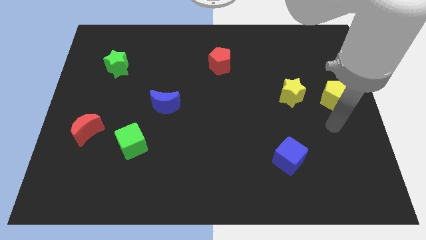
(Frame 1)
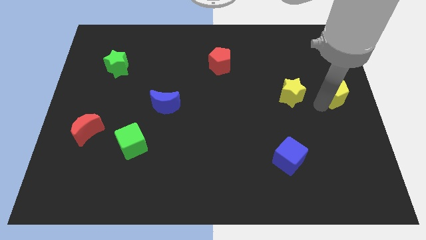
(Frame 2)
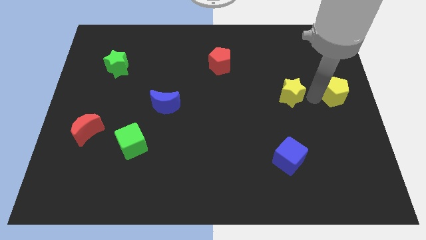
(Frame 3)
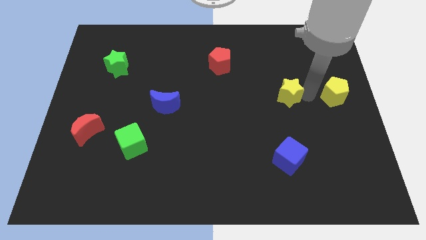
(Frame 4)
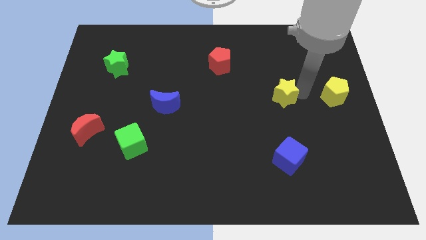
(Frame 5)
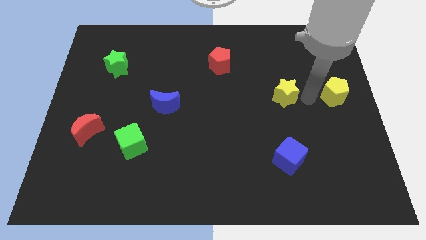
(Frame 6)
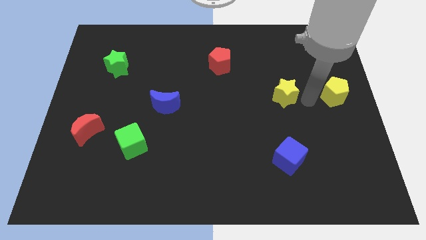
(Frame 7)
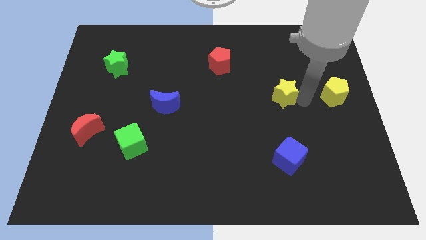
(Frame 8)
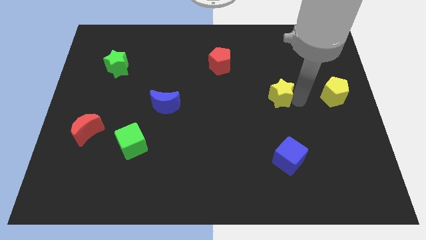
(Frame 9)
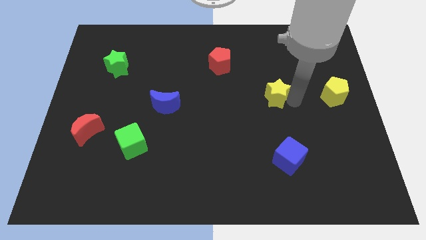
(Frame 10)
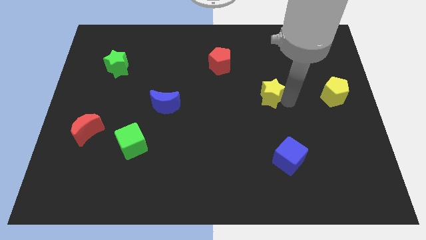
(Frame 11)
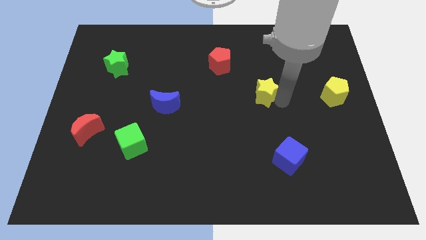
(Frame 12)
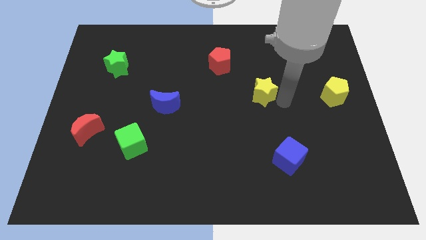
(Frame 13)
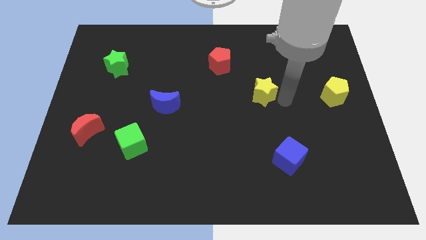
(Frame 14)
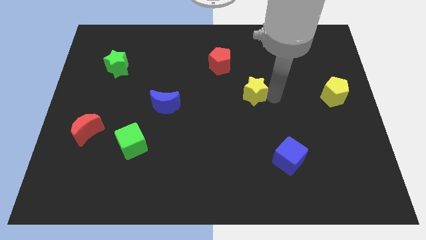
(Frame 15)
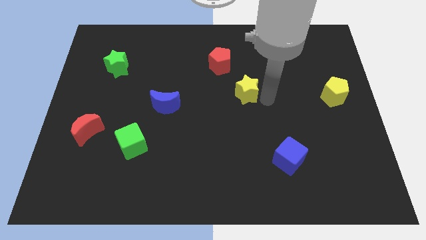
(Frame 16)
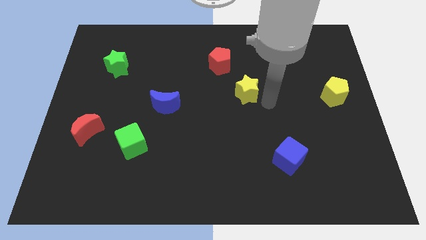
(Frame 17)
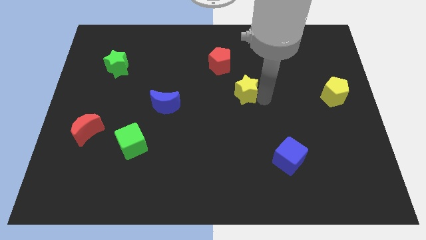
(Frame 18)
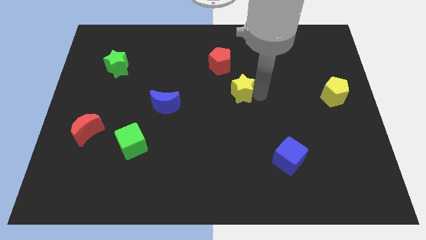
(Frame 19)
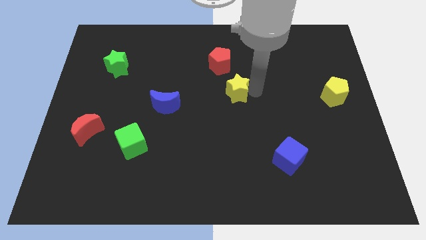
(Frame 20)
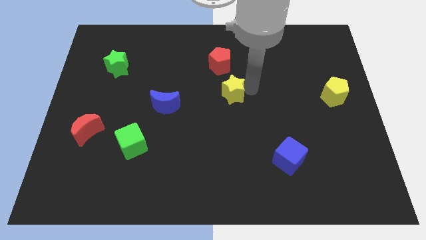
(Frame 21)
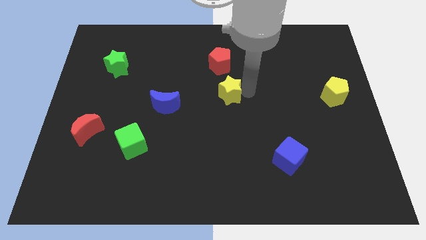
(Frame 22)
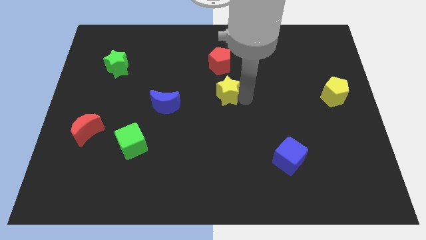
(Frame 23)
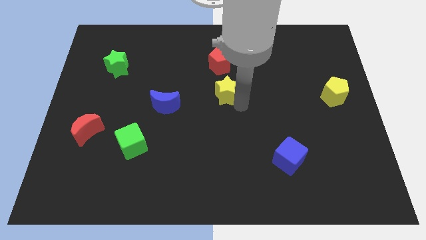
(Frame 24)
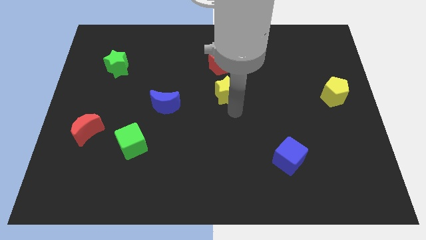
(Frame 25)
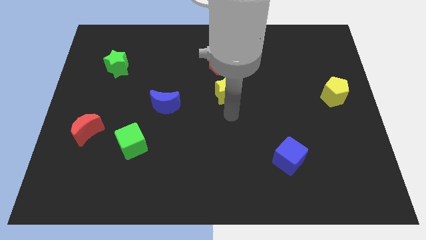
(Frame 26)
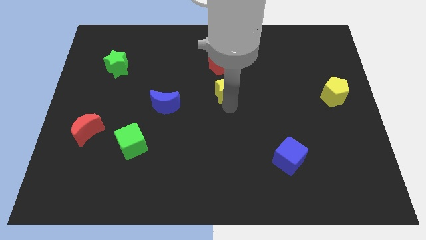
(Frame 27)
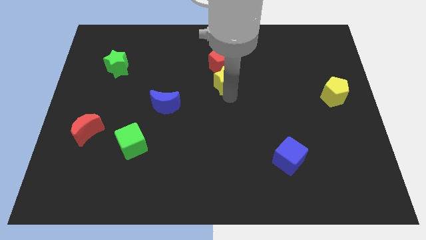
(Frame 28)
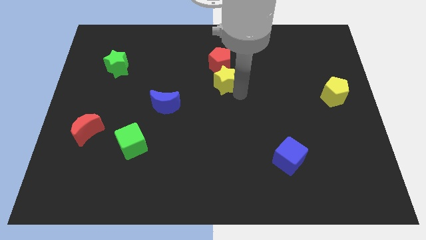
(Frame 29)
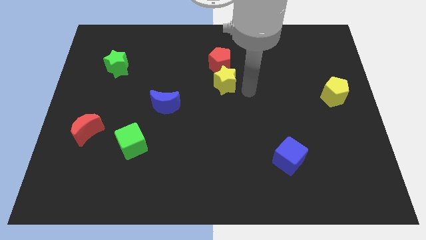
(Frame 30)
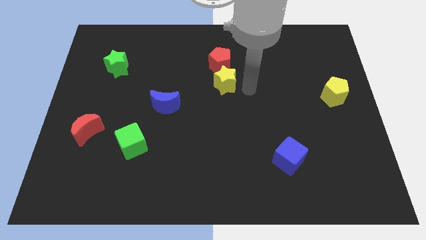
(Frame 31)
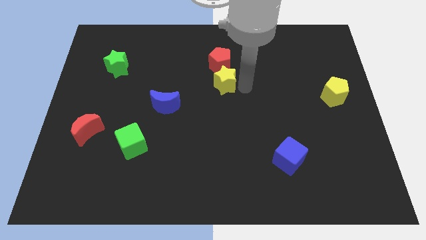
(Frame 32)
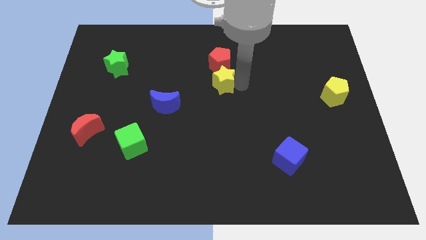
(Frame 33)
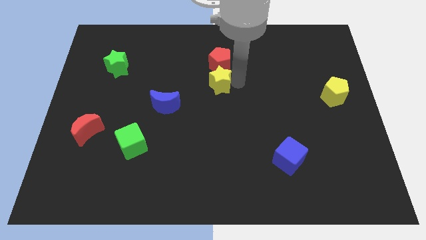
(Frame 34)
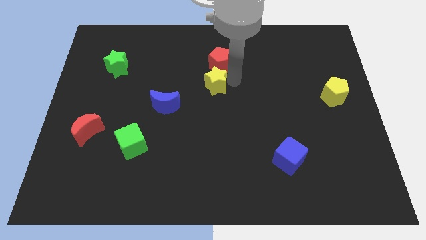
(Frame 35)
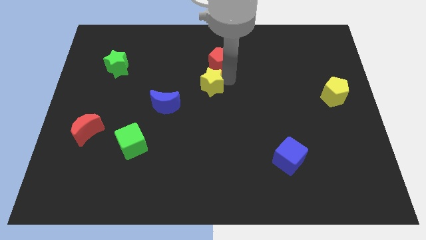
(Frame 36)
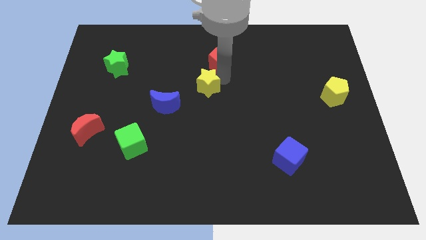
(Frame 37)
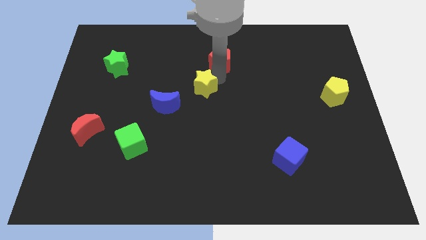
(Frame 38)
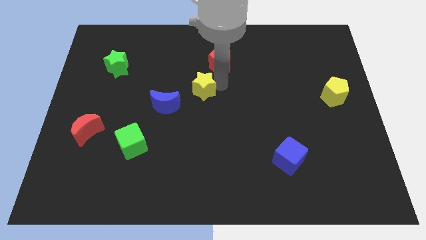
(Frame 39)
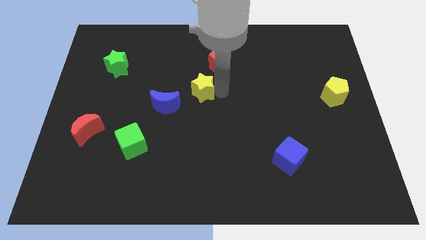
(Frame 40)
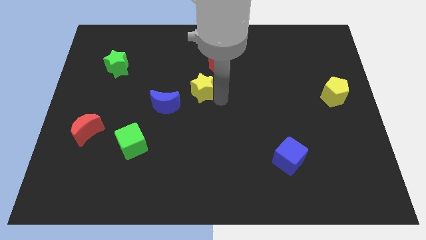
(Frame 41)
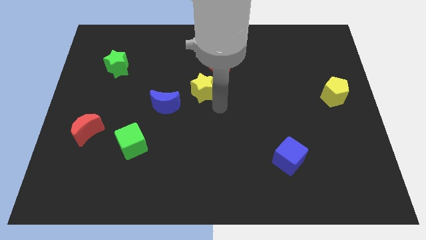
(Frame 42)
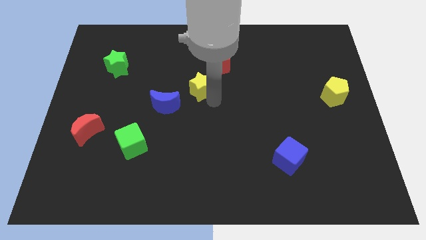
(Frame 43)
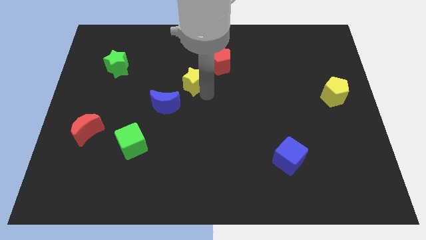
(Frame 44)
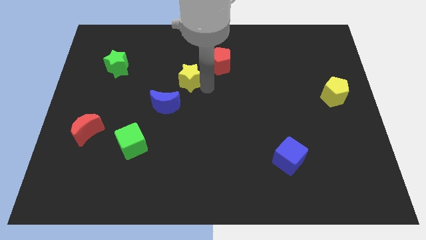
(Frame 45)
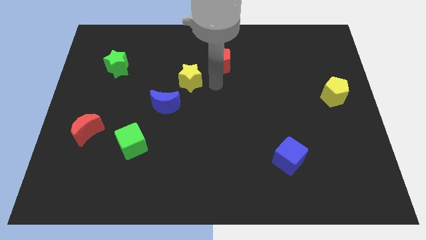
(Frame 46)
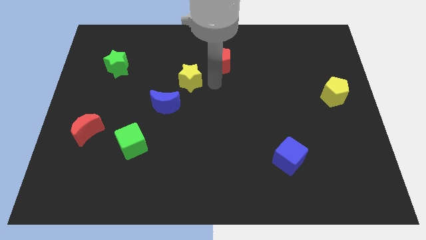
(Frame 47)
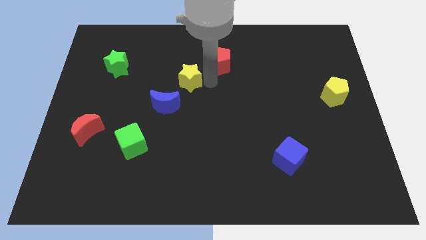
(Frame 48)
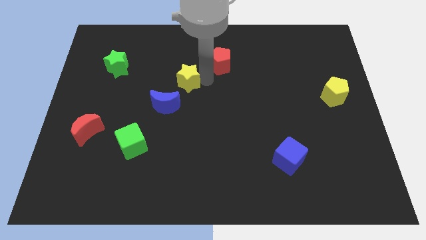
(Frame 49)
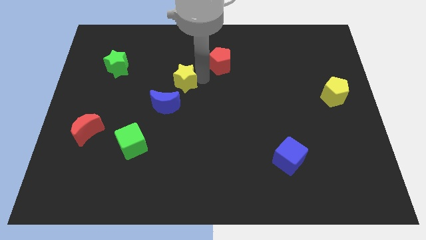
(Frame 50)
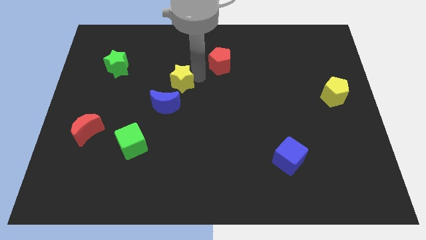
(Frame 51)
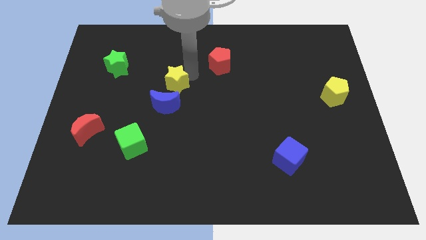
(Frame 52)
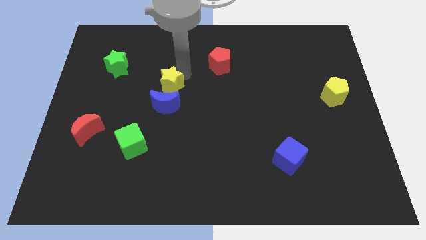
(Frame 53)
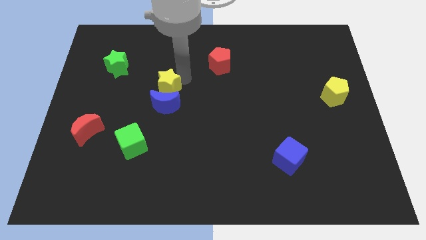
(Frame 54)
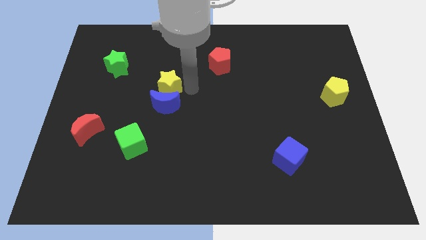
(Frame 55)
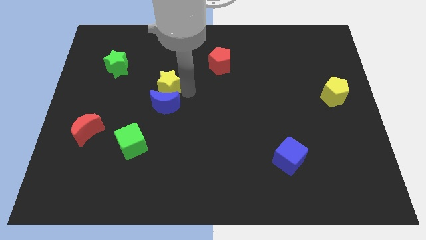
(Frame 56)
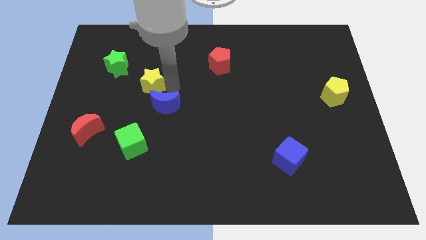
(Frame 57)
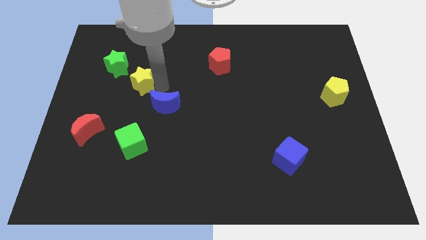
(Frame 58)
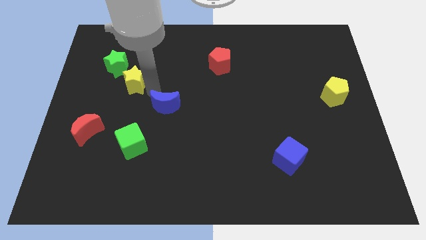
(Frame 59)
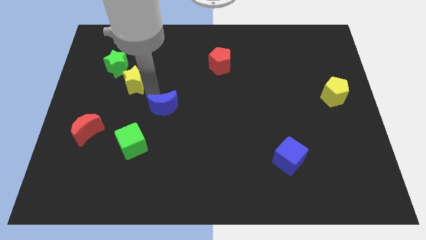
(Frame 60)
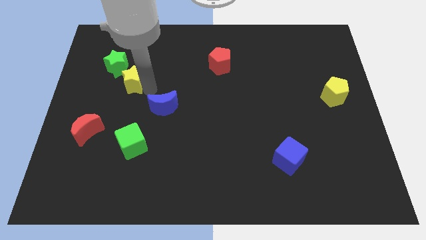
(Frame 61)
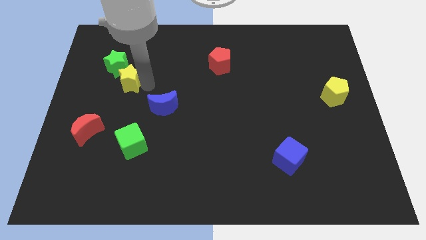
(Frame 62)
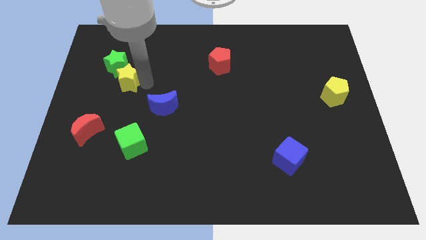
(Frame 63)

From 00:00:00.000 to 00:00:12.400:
move the yellow star next to the green star
